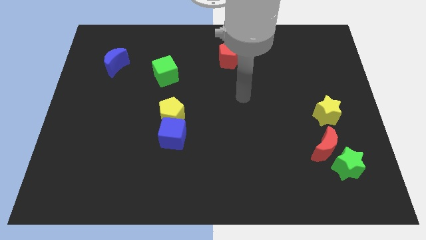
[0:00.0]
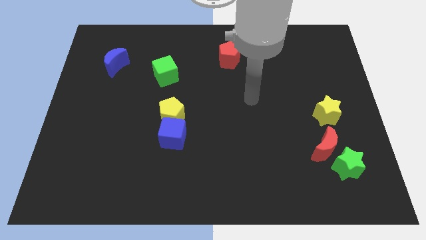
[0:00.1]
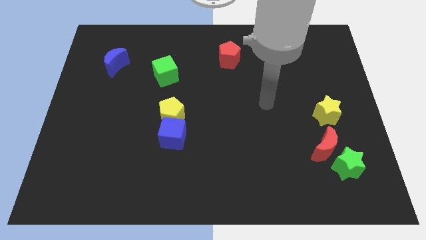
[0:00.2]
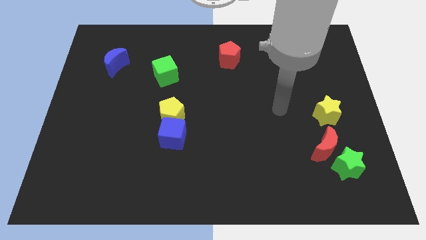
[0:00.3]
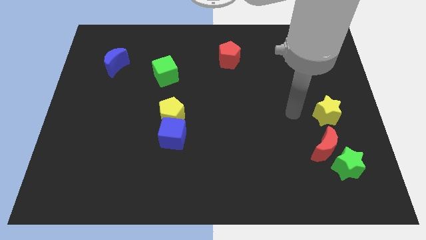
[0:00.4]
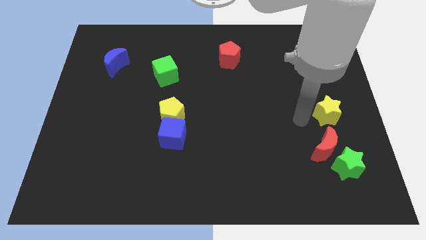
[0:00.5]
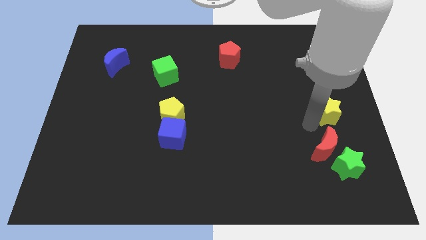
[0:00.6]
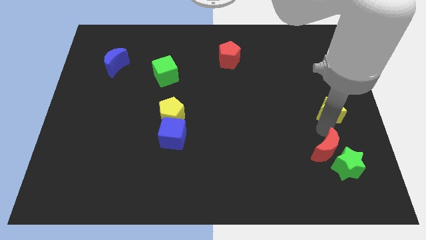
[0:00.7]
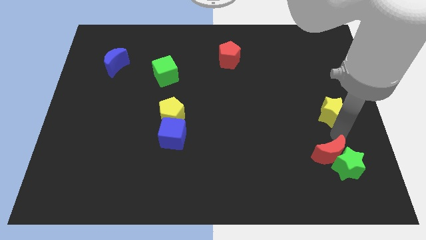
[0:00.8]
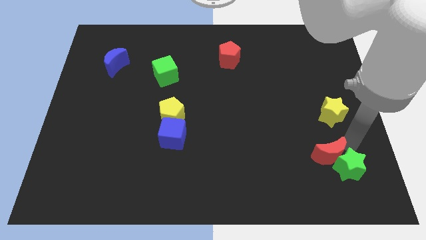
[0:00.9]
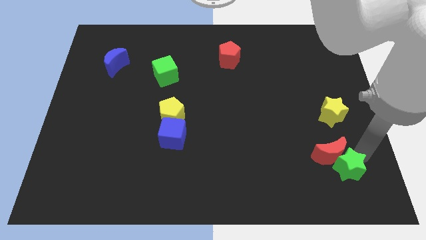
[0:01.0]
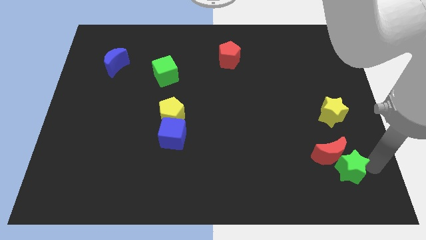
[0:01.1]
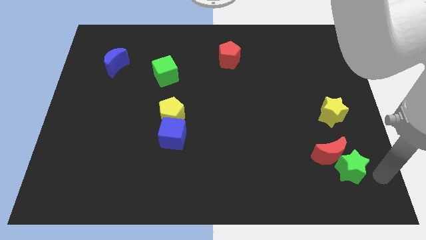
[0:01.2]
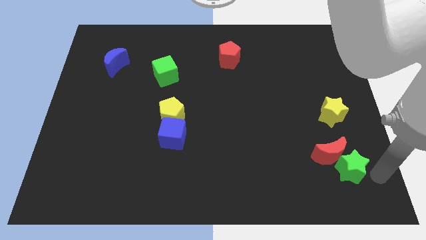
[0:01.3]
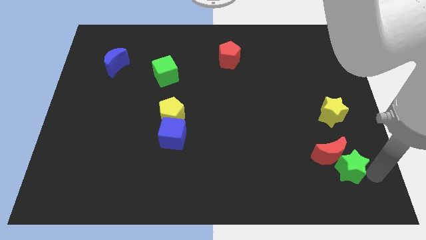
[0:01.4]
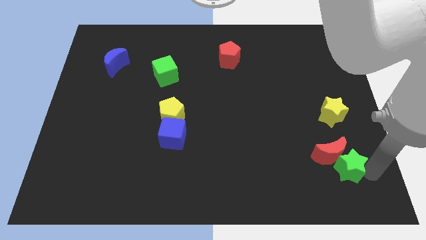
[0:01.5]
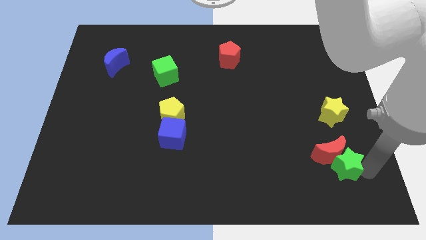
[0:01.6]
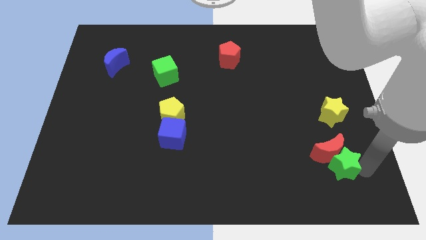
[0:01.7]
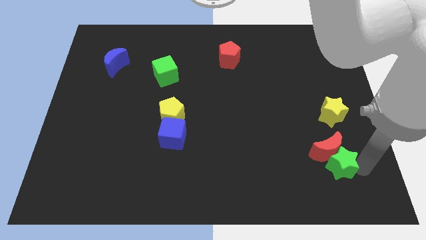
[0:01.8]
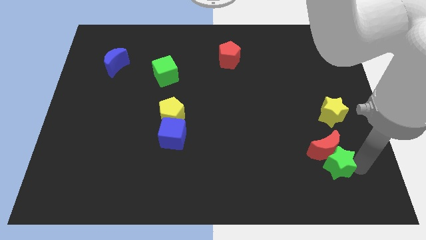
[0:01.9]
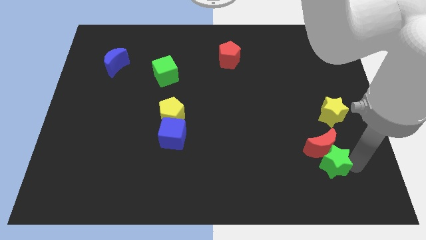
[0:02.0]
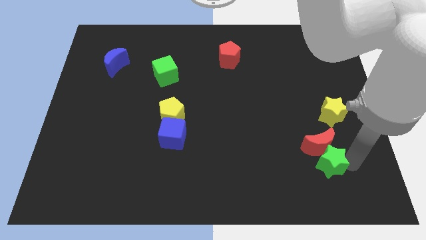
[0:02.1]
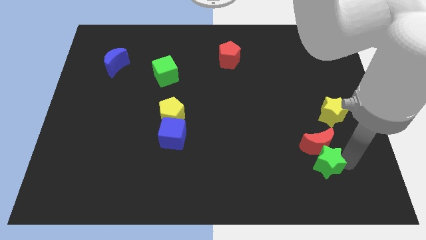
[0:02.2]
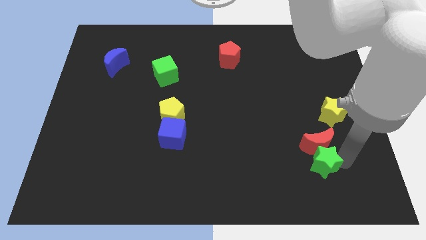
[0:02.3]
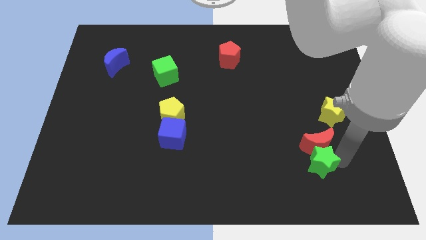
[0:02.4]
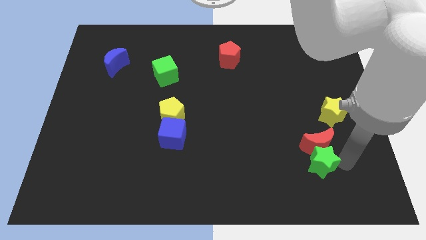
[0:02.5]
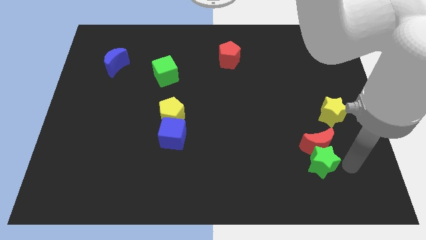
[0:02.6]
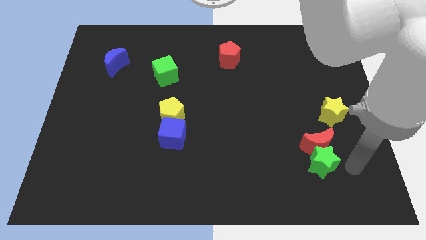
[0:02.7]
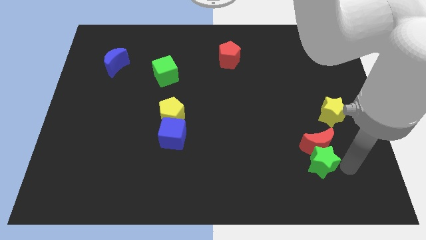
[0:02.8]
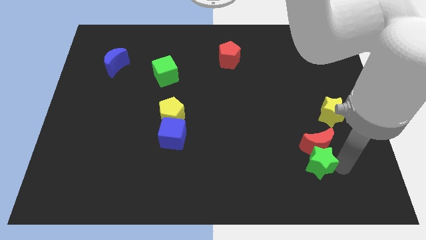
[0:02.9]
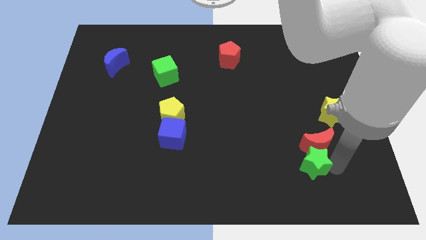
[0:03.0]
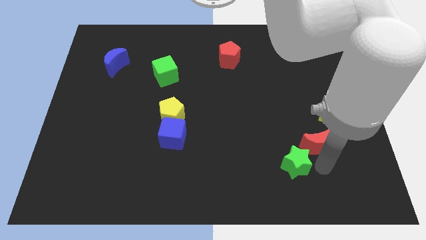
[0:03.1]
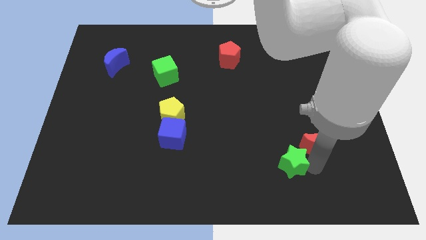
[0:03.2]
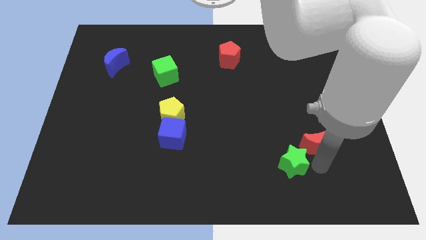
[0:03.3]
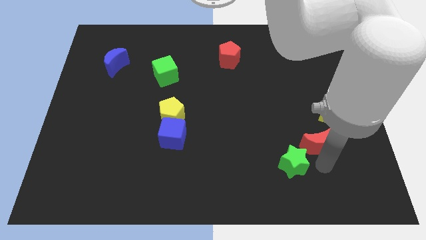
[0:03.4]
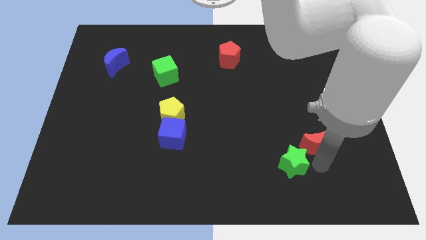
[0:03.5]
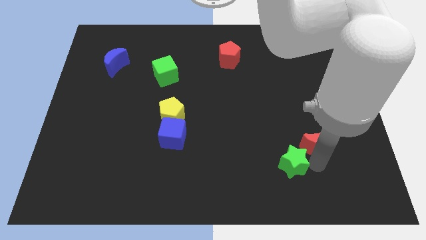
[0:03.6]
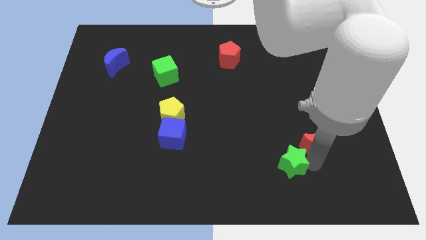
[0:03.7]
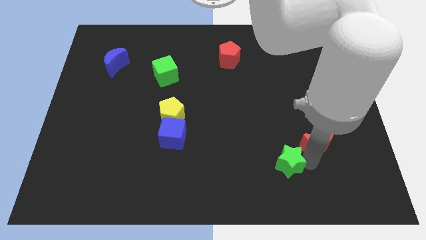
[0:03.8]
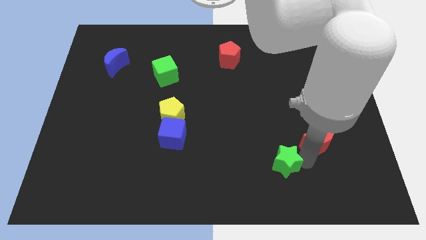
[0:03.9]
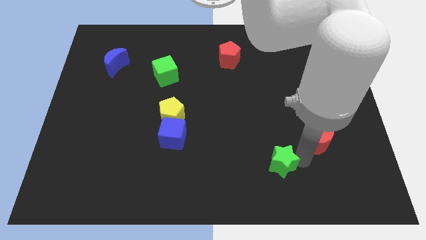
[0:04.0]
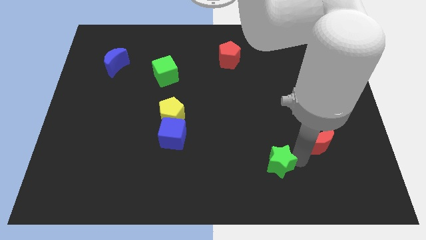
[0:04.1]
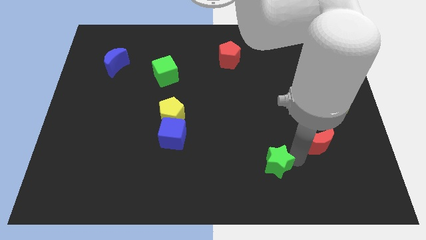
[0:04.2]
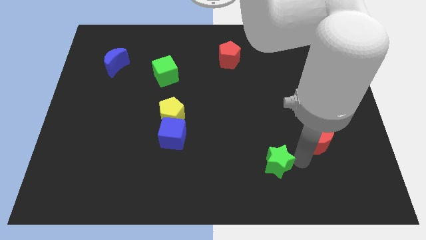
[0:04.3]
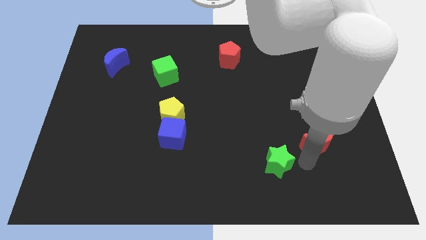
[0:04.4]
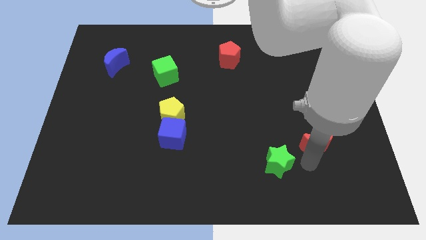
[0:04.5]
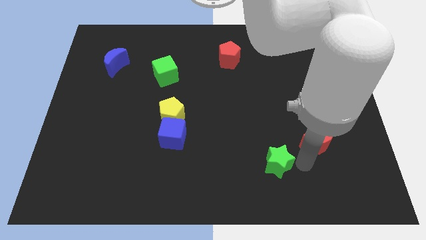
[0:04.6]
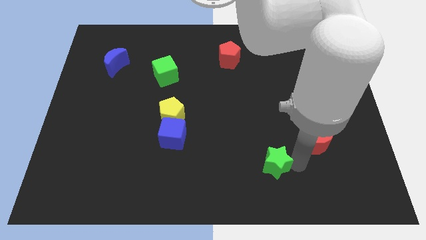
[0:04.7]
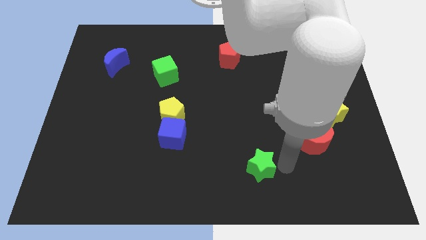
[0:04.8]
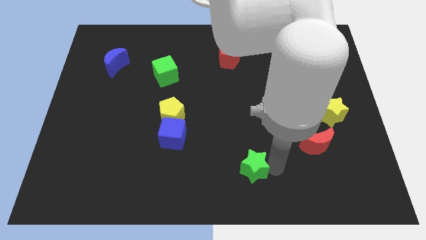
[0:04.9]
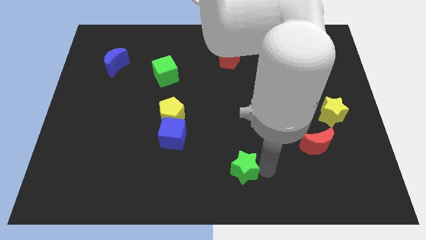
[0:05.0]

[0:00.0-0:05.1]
push the green star left

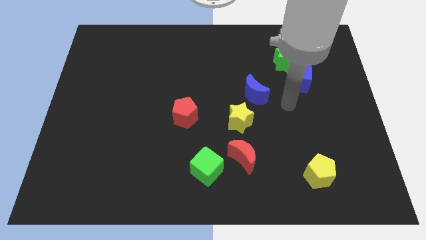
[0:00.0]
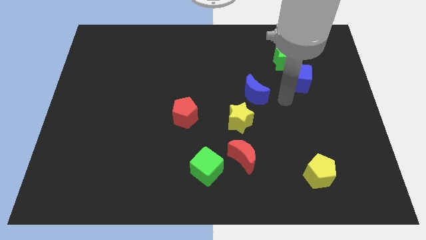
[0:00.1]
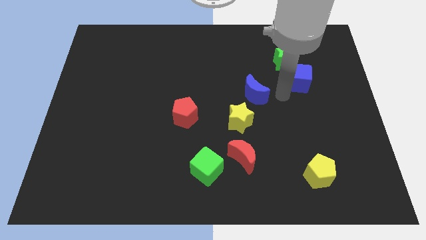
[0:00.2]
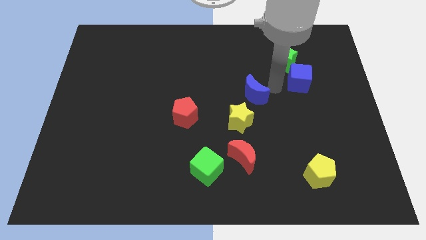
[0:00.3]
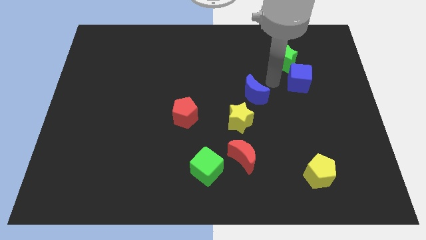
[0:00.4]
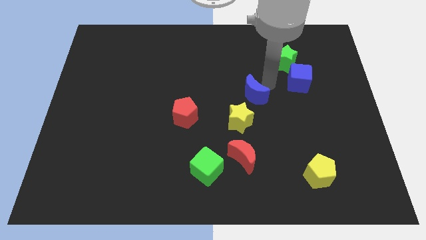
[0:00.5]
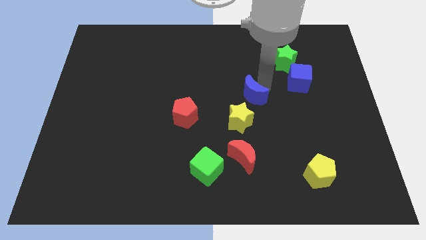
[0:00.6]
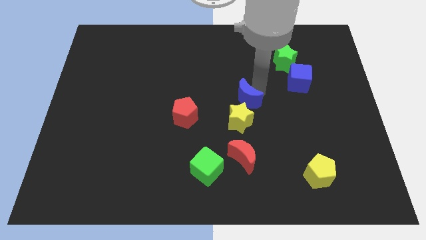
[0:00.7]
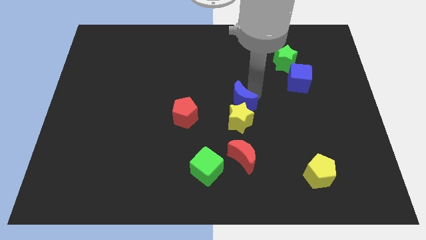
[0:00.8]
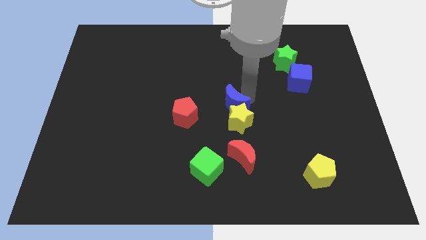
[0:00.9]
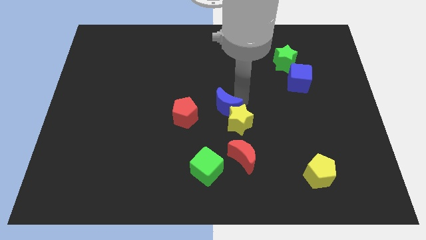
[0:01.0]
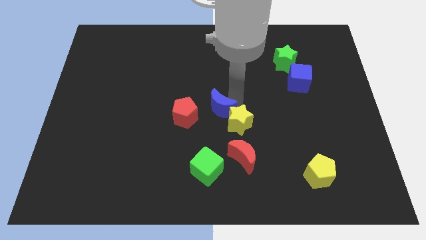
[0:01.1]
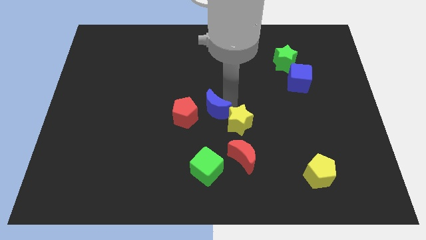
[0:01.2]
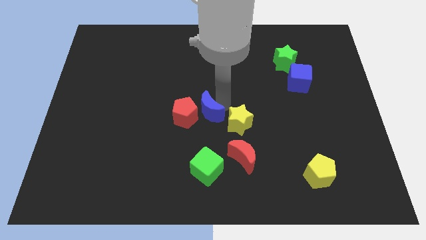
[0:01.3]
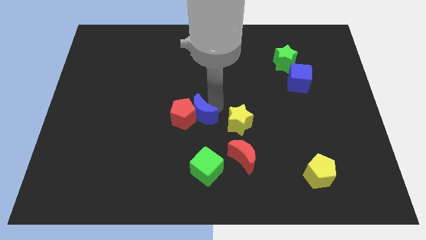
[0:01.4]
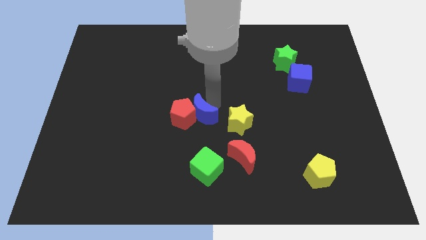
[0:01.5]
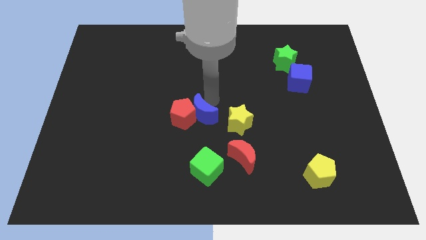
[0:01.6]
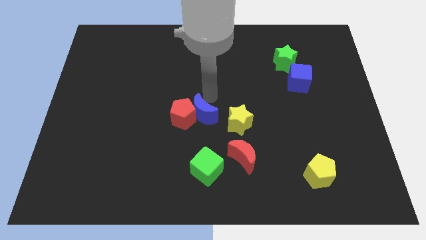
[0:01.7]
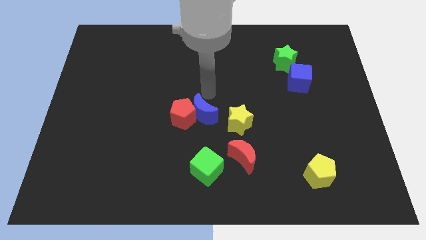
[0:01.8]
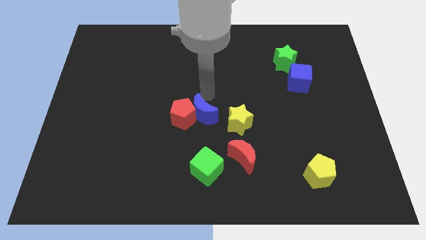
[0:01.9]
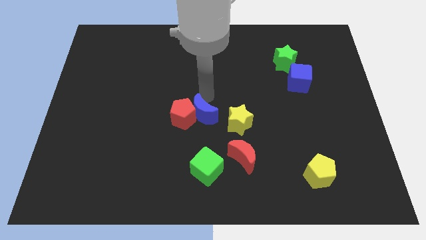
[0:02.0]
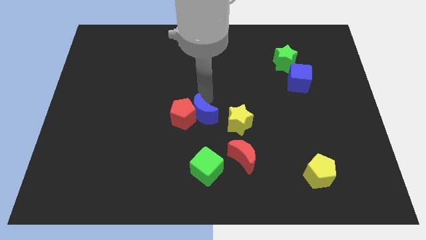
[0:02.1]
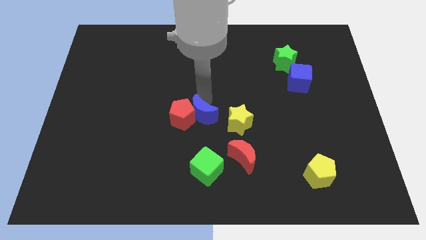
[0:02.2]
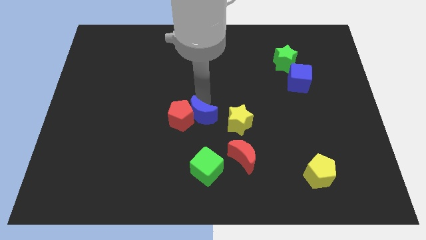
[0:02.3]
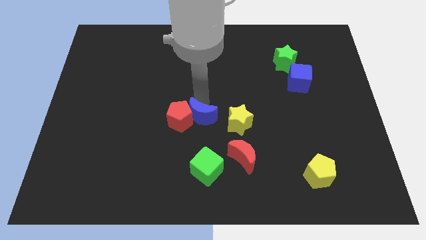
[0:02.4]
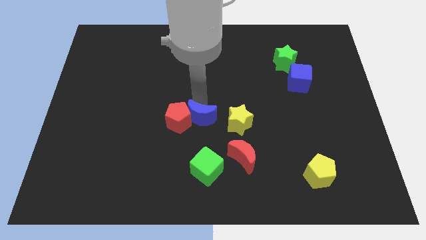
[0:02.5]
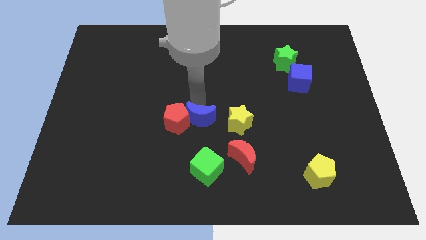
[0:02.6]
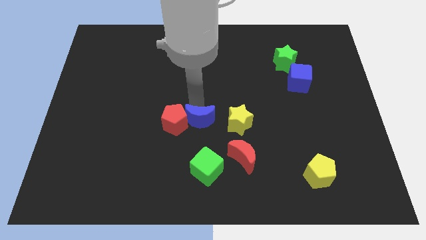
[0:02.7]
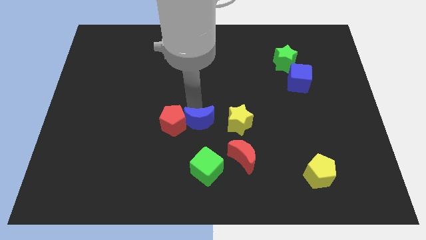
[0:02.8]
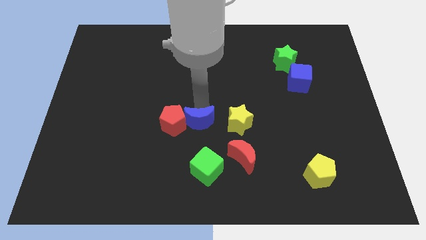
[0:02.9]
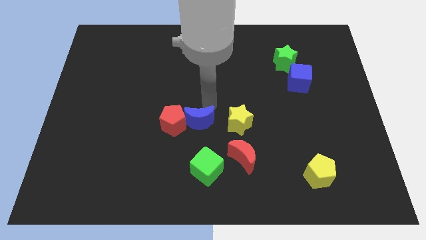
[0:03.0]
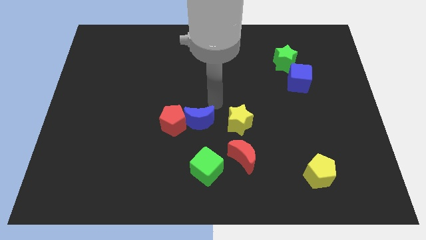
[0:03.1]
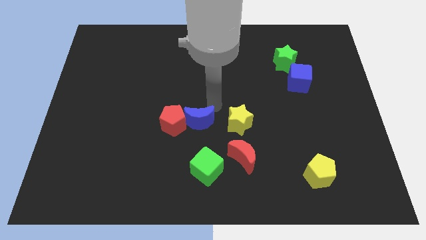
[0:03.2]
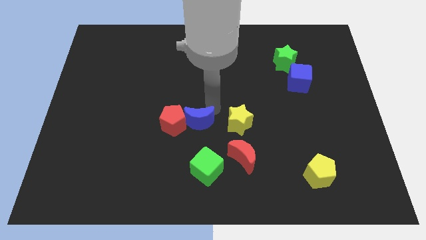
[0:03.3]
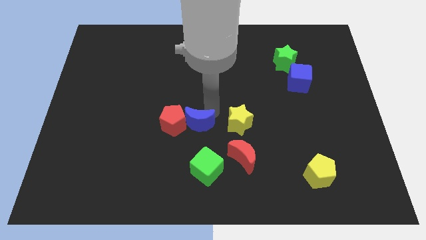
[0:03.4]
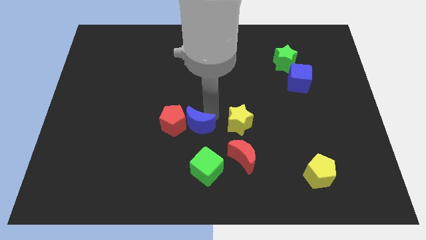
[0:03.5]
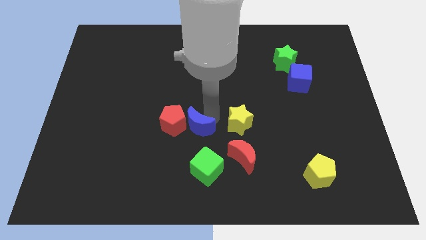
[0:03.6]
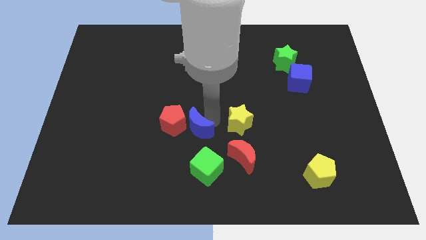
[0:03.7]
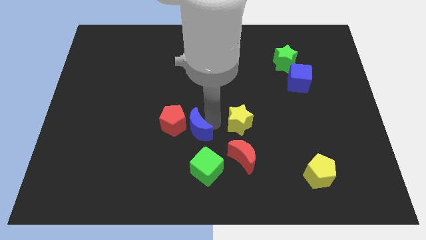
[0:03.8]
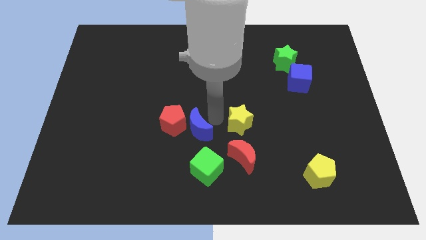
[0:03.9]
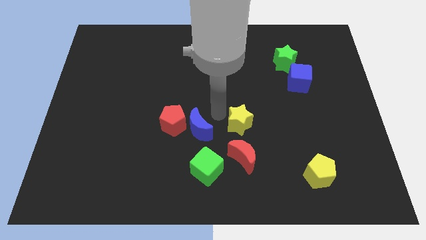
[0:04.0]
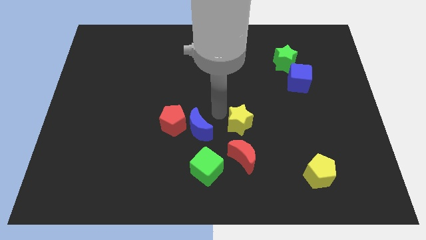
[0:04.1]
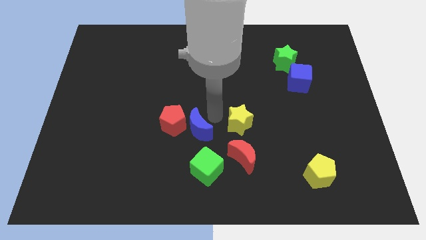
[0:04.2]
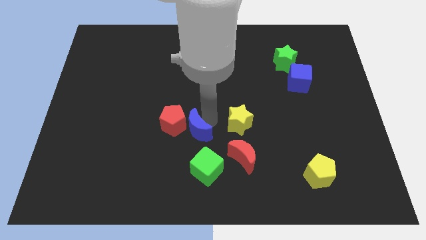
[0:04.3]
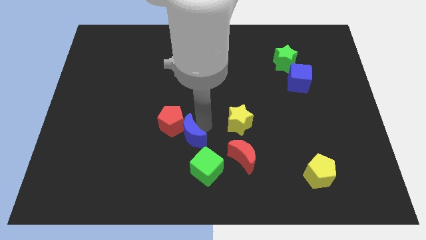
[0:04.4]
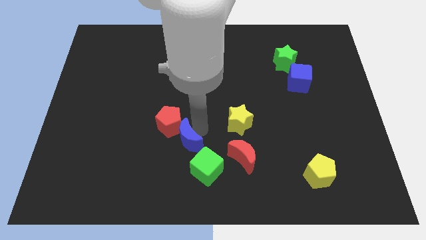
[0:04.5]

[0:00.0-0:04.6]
move the blue moon down and to the left diagonally
